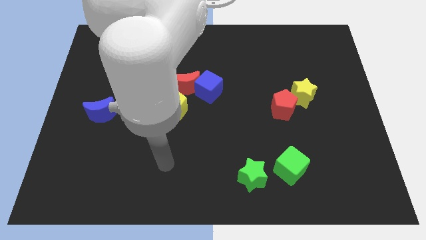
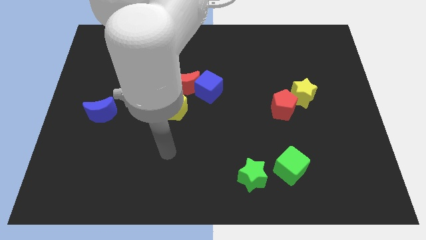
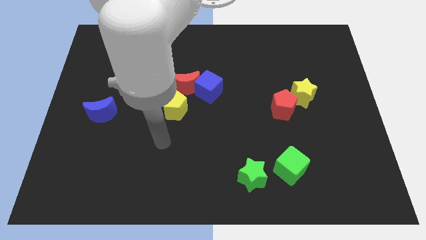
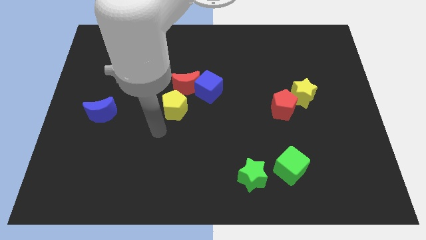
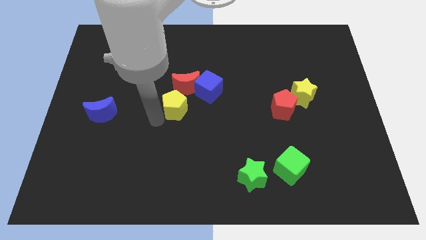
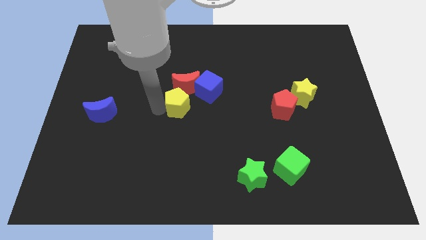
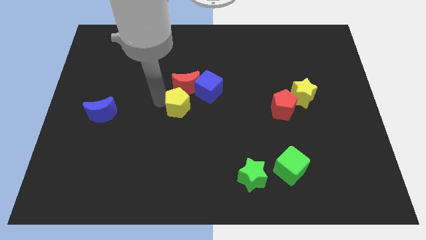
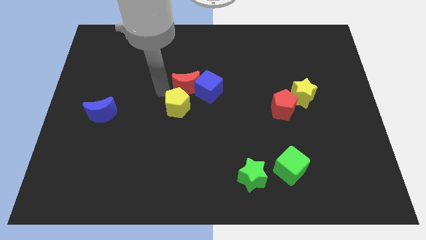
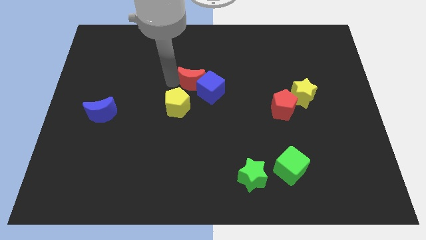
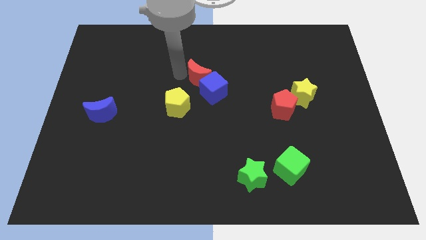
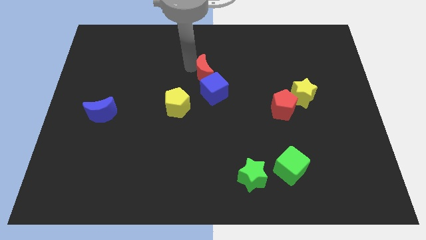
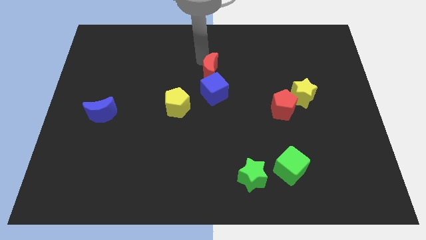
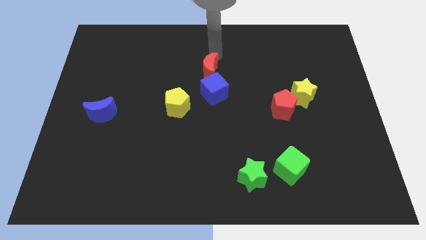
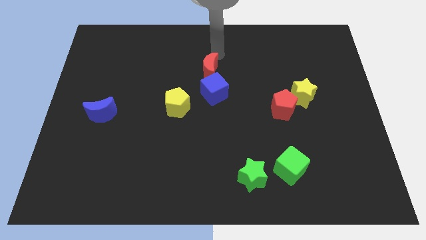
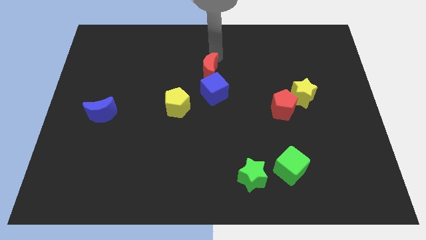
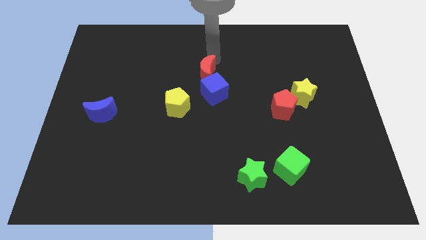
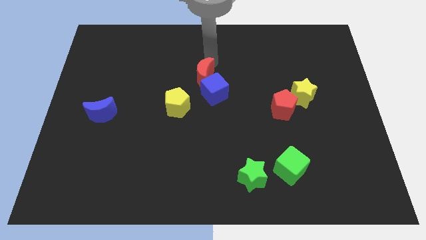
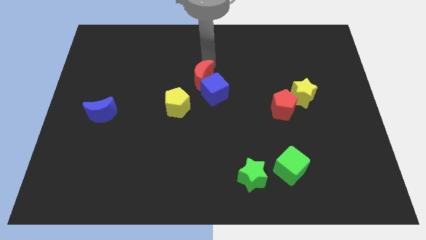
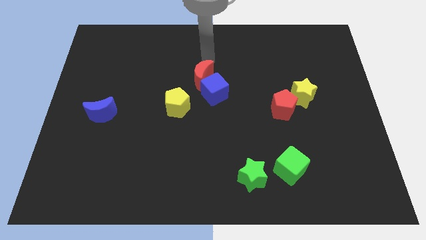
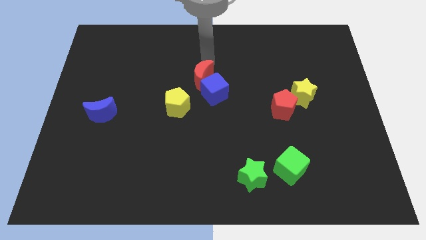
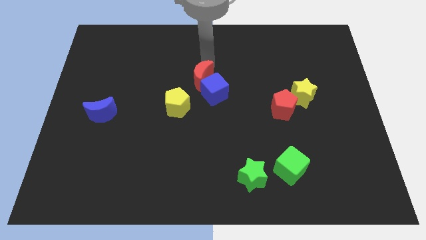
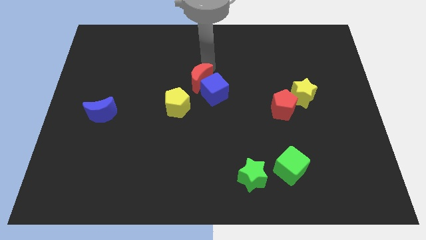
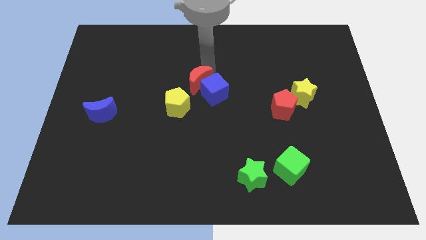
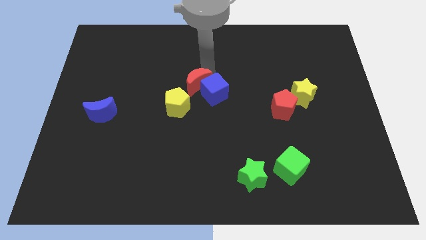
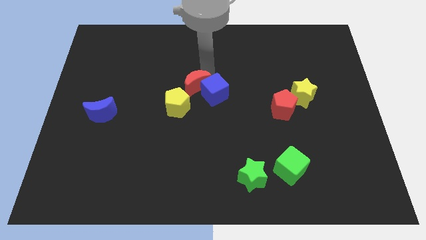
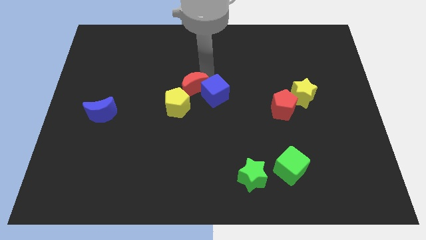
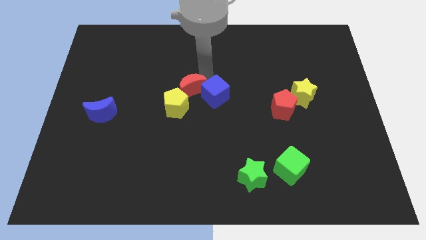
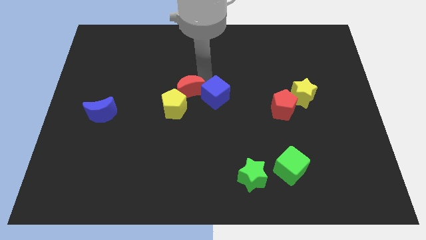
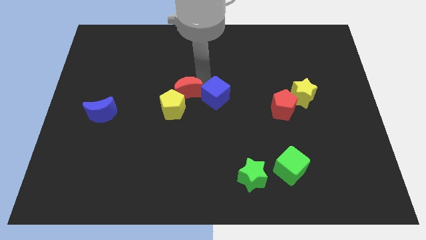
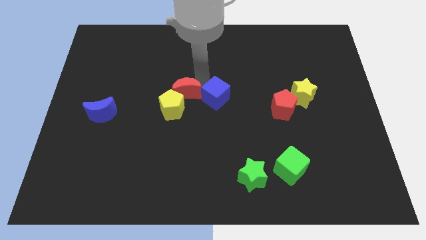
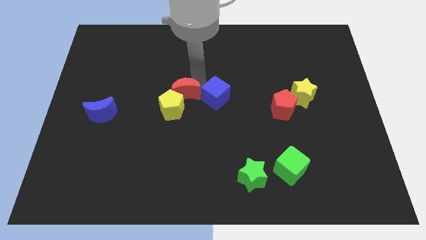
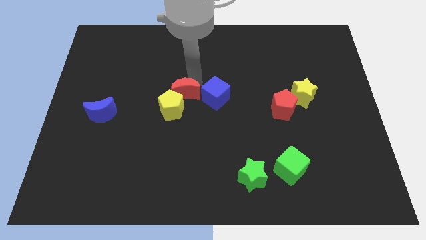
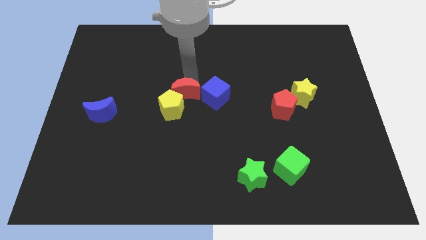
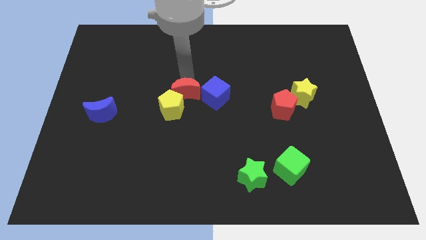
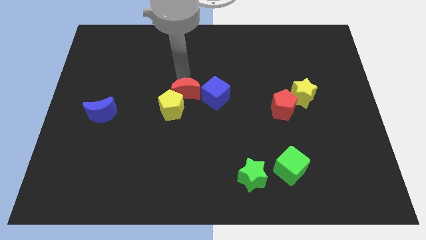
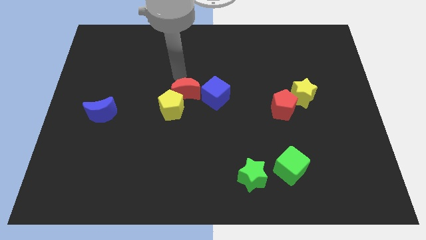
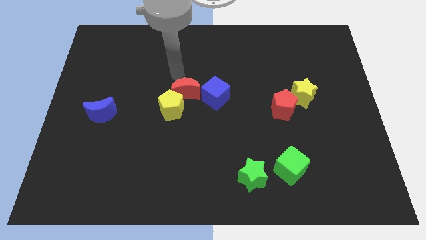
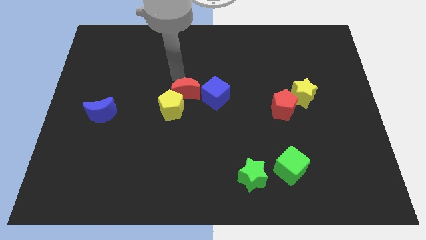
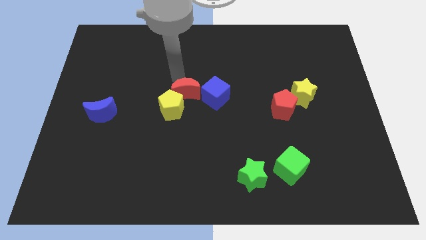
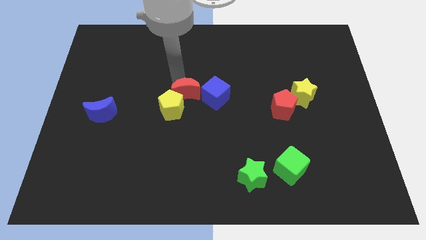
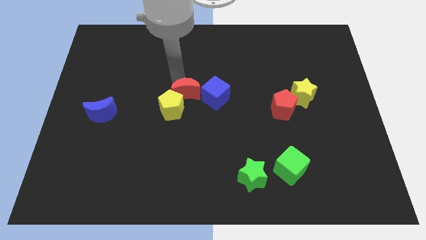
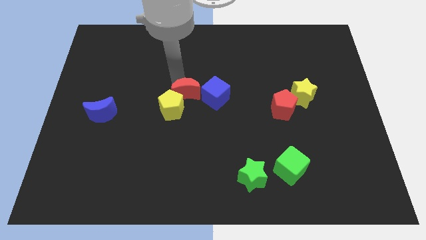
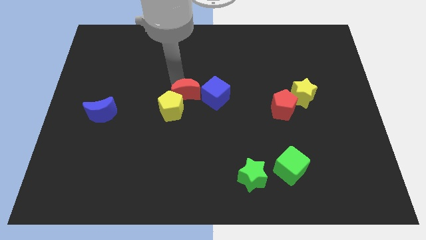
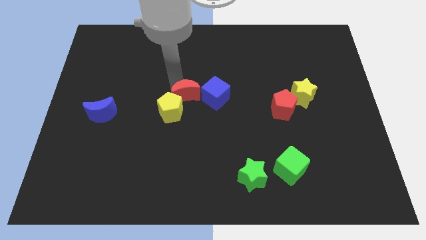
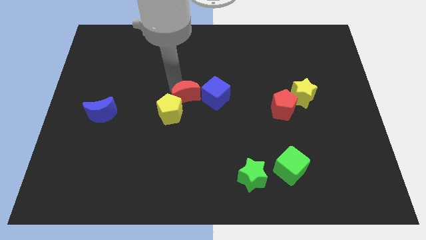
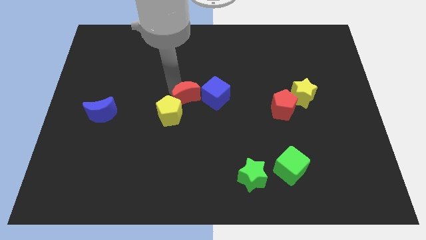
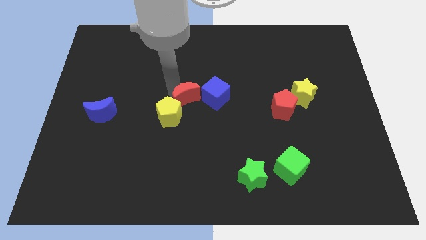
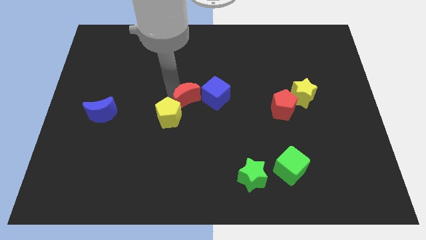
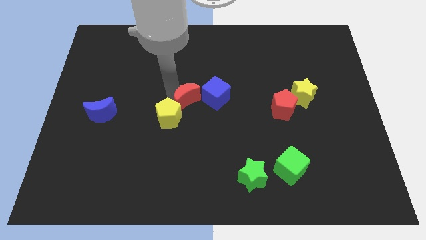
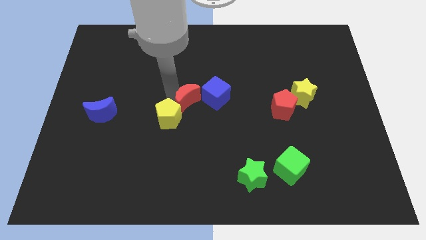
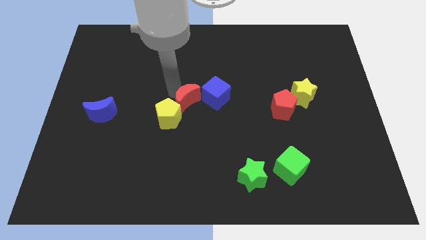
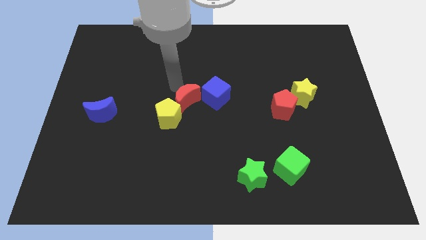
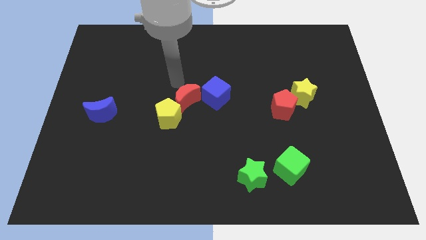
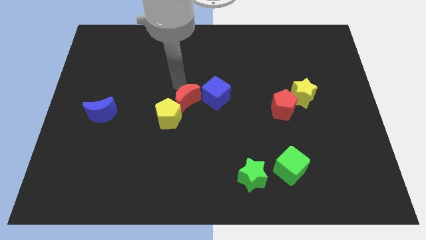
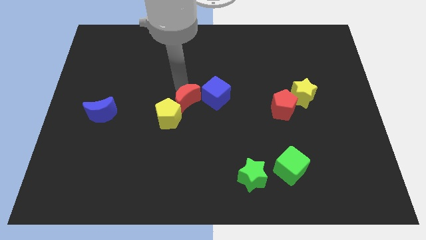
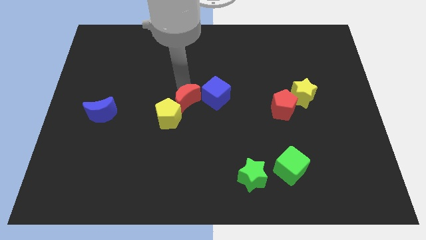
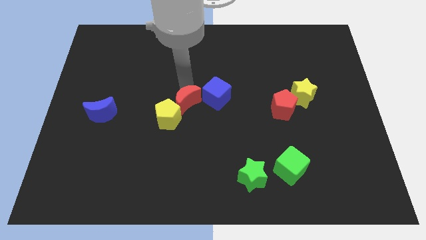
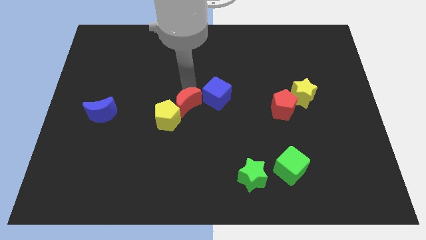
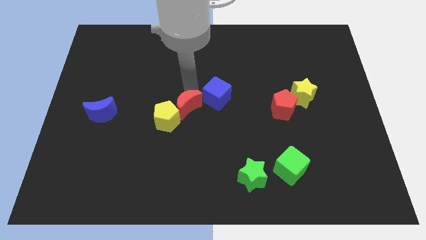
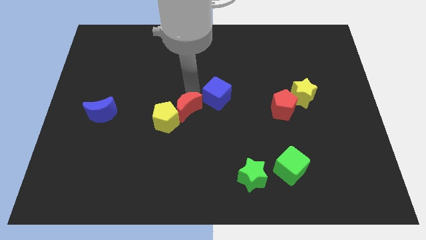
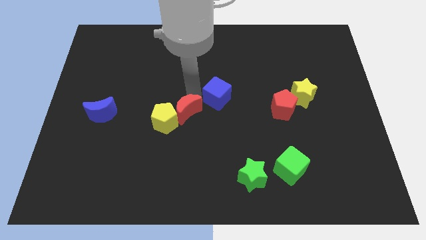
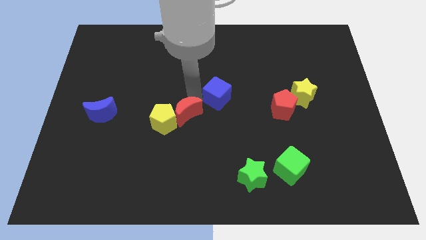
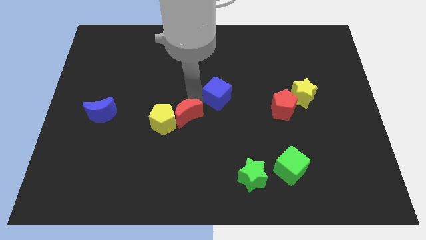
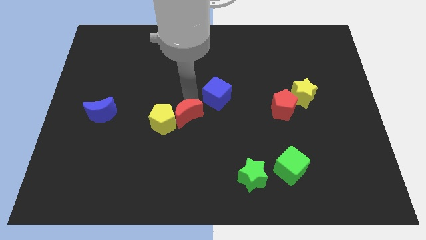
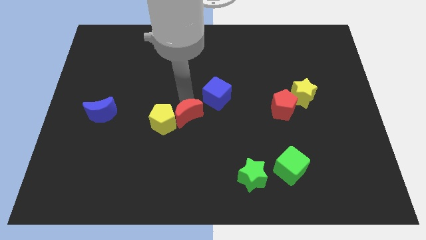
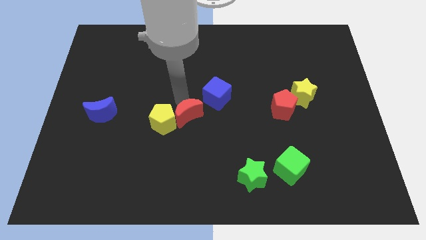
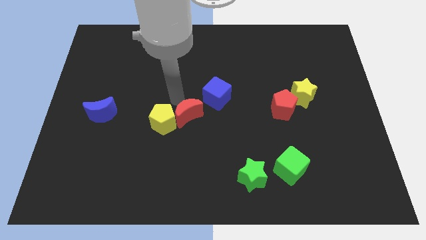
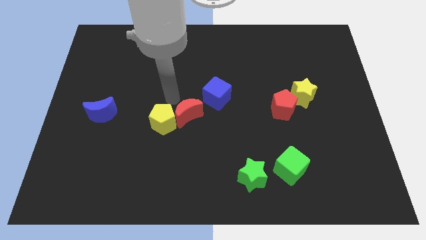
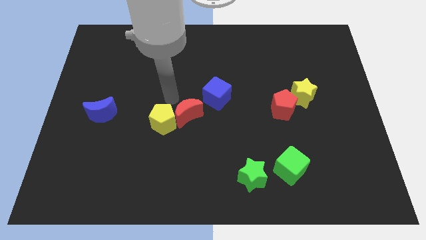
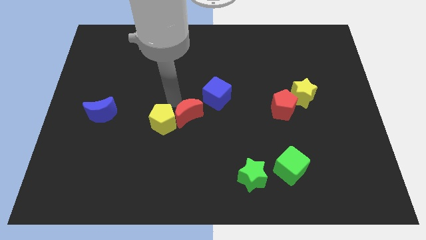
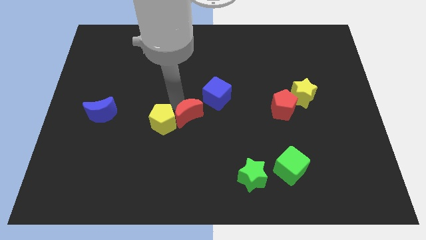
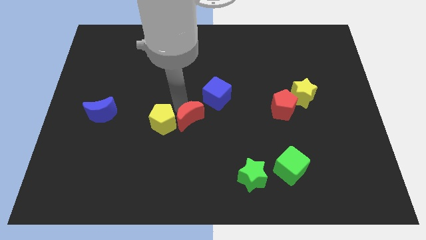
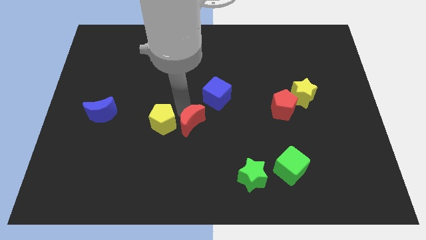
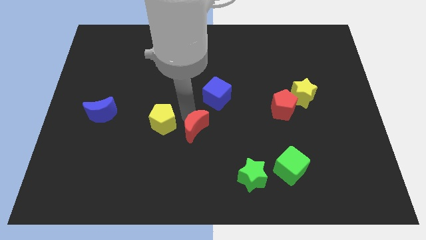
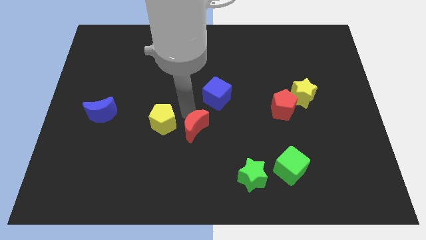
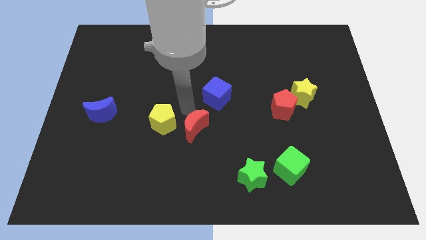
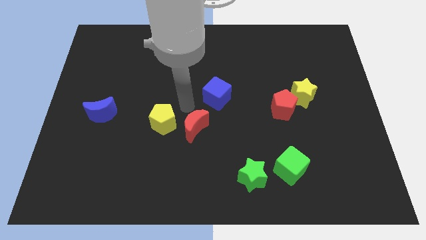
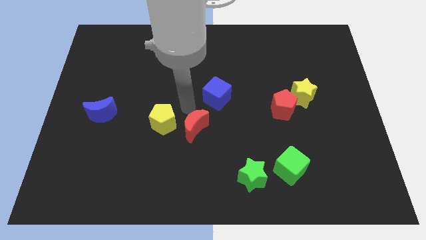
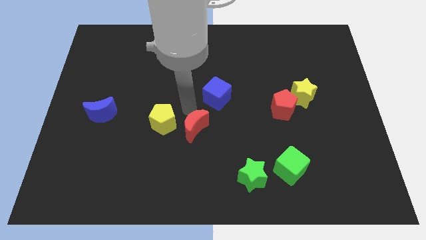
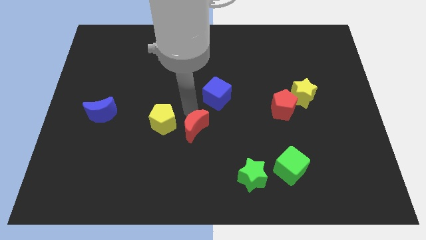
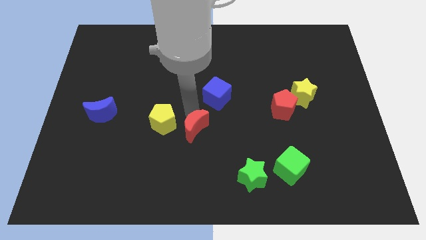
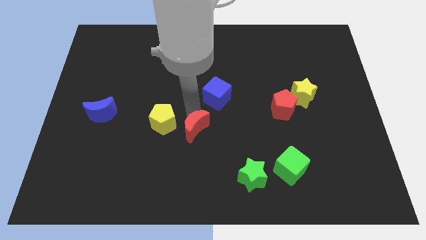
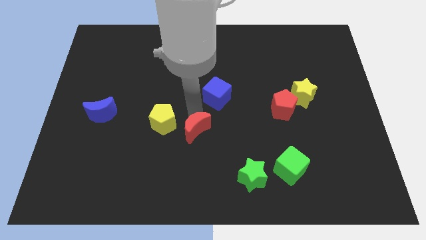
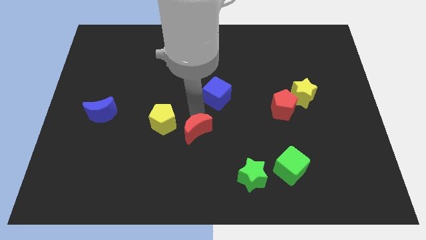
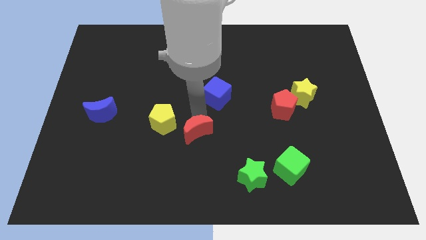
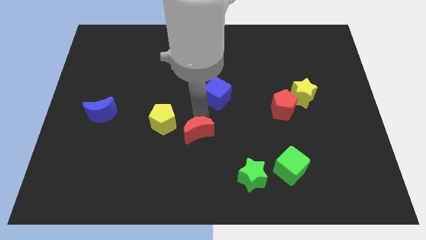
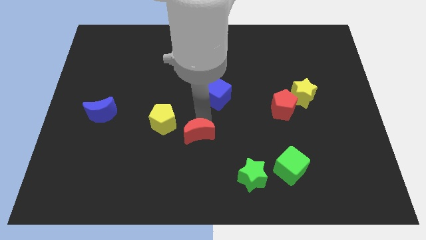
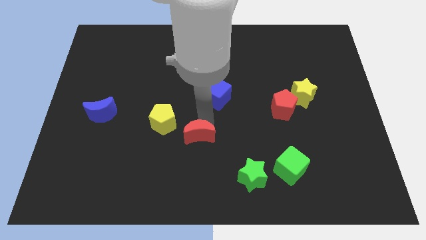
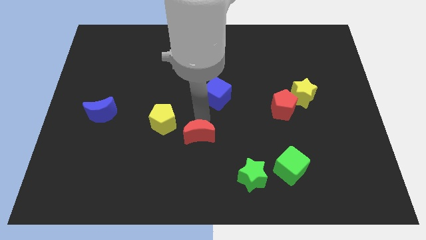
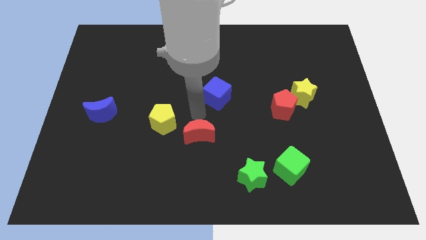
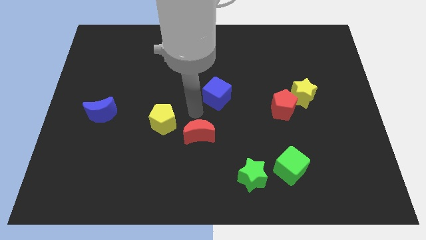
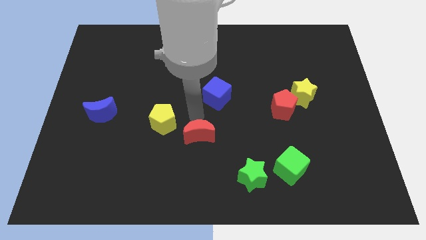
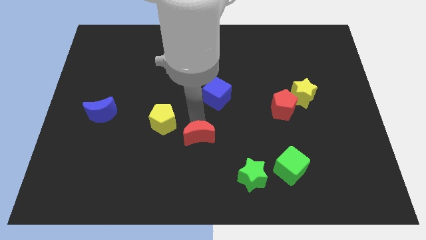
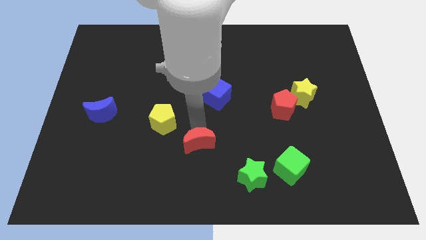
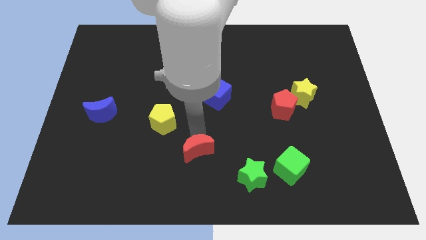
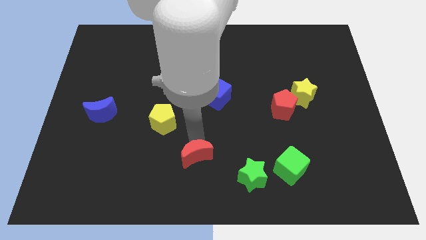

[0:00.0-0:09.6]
push the red moon to the bottom side
